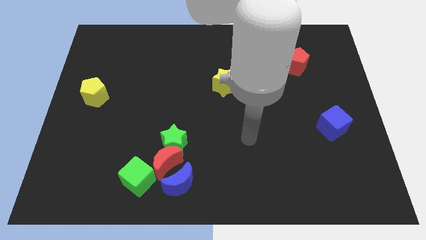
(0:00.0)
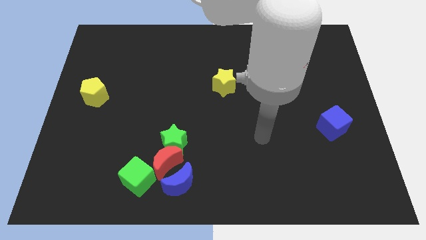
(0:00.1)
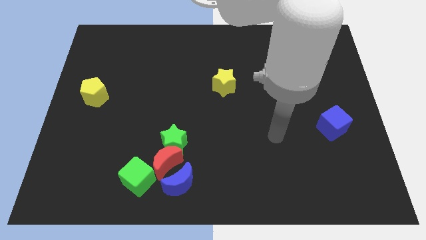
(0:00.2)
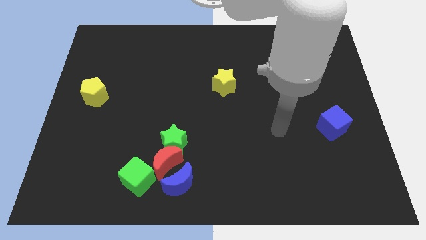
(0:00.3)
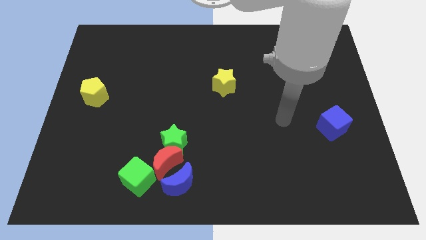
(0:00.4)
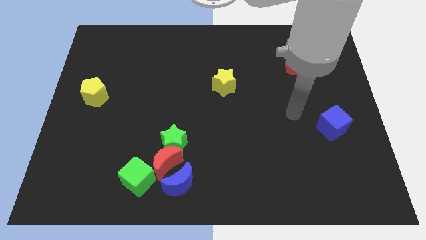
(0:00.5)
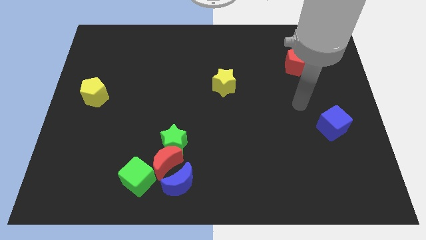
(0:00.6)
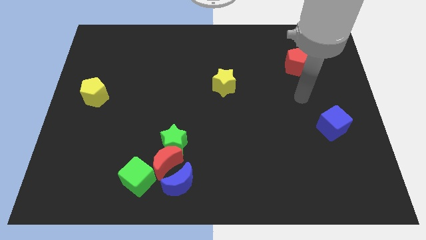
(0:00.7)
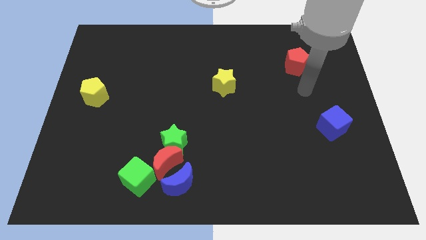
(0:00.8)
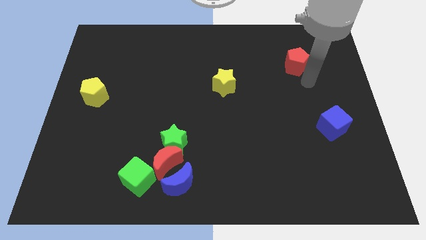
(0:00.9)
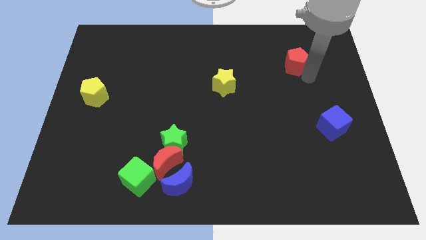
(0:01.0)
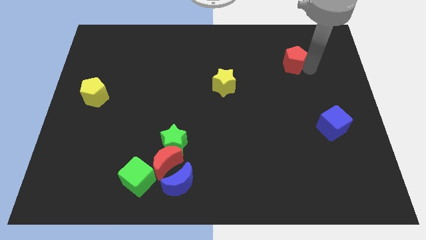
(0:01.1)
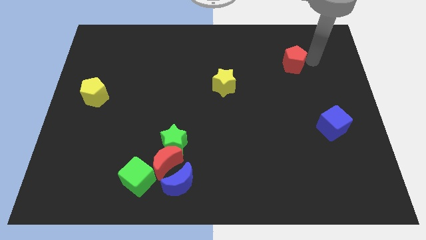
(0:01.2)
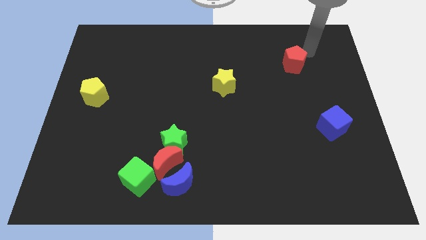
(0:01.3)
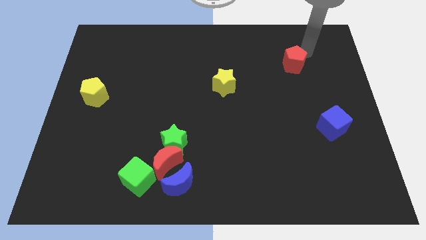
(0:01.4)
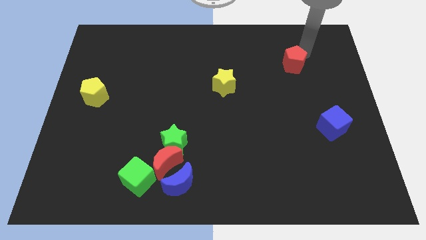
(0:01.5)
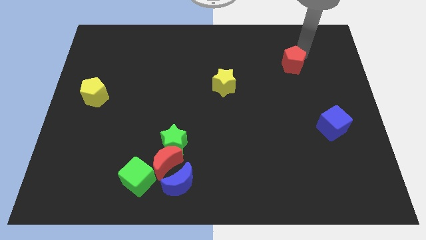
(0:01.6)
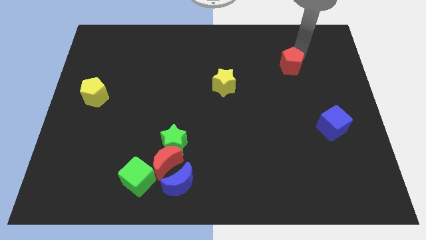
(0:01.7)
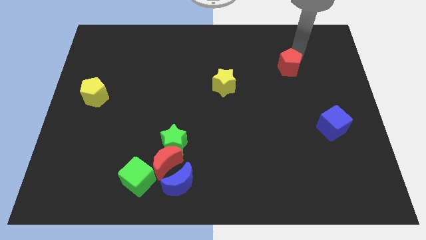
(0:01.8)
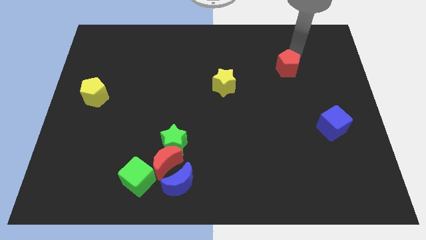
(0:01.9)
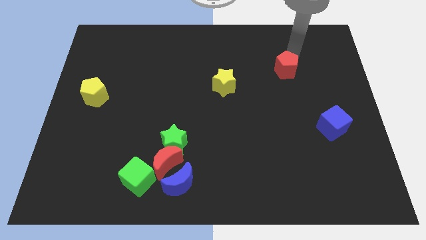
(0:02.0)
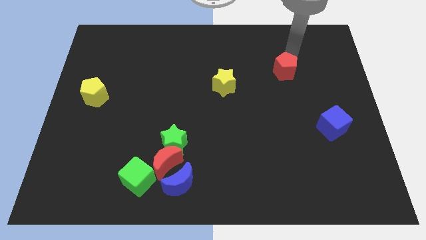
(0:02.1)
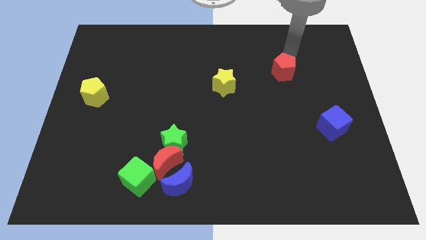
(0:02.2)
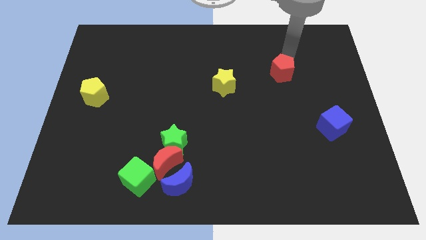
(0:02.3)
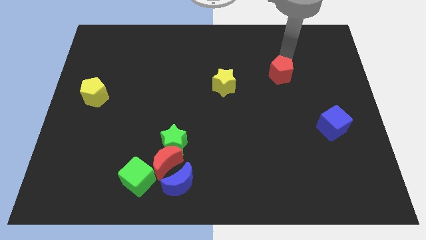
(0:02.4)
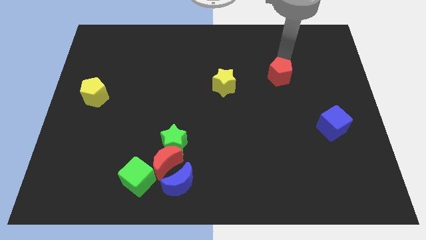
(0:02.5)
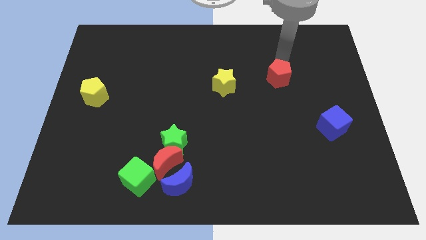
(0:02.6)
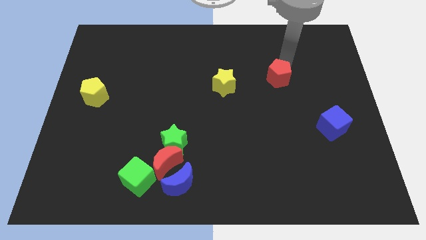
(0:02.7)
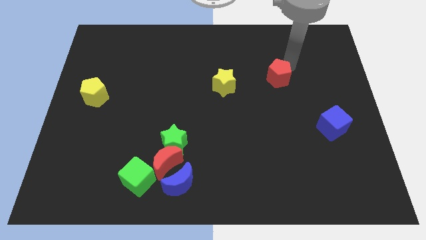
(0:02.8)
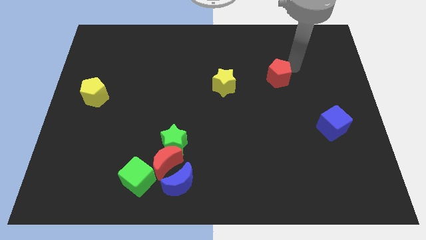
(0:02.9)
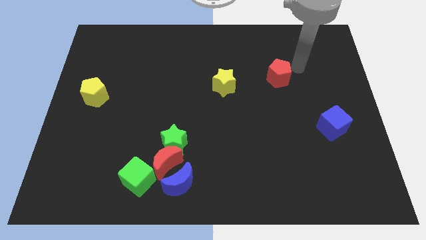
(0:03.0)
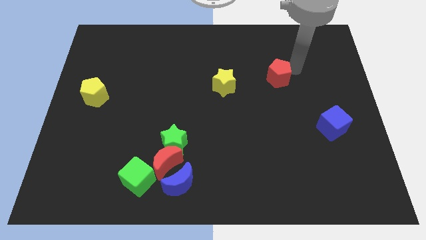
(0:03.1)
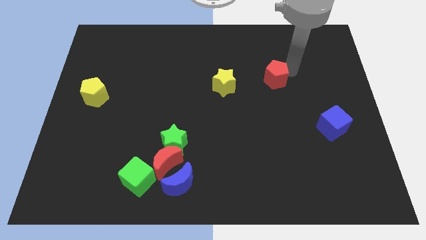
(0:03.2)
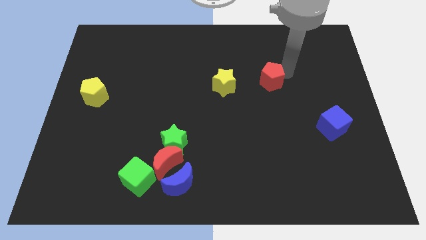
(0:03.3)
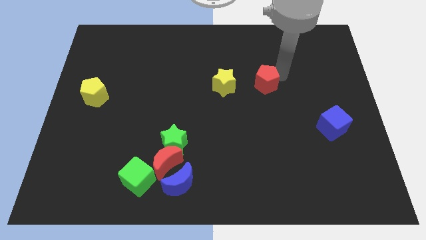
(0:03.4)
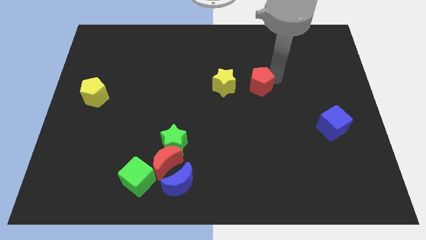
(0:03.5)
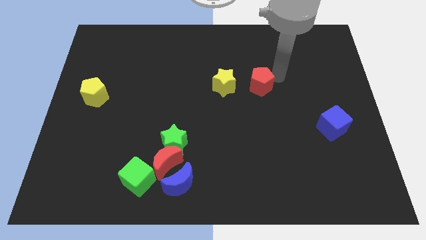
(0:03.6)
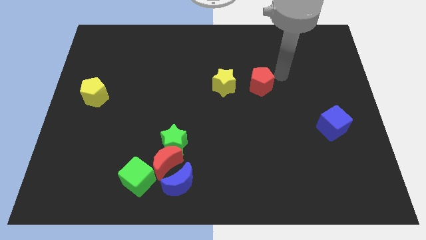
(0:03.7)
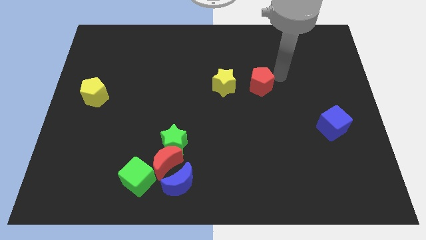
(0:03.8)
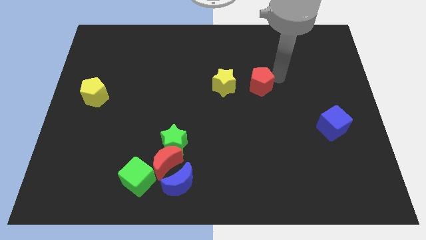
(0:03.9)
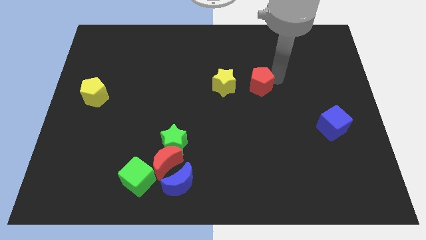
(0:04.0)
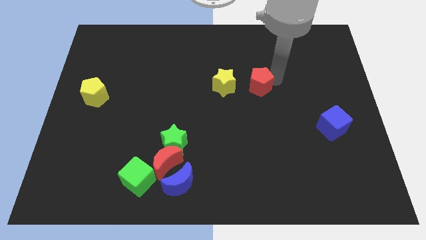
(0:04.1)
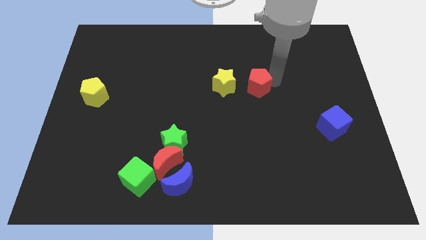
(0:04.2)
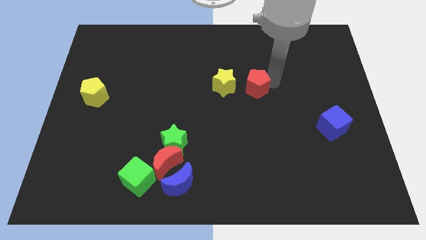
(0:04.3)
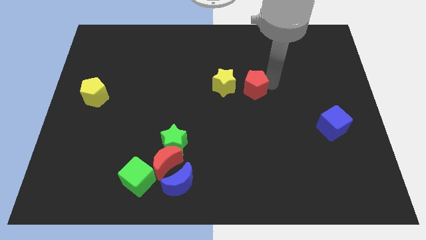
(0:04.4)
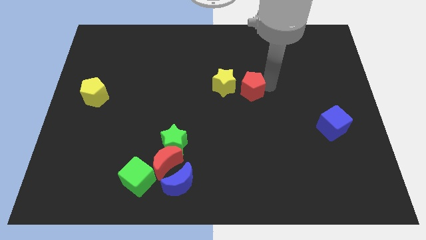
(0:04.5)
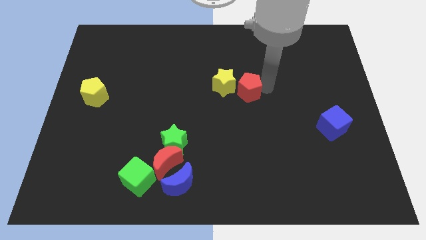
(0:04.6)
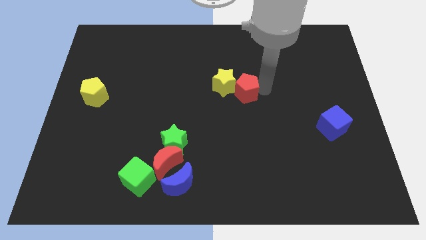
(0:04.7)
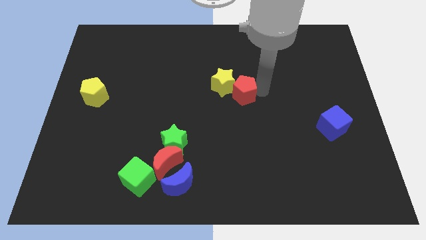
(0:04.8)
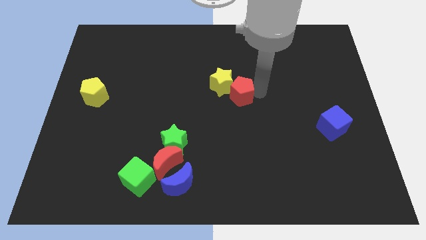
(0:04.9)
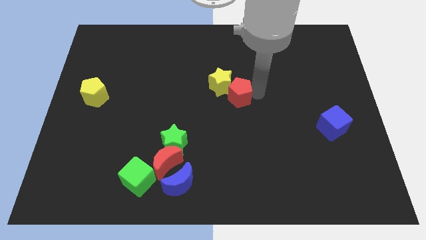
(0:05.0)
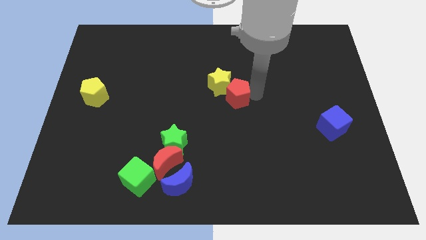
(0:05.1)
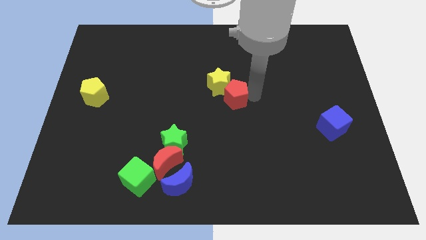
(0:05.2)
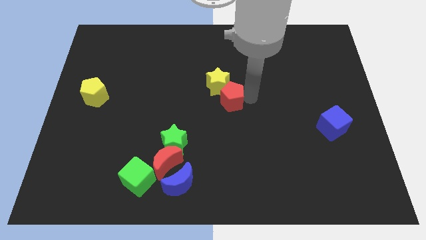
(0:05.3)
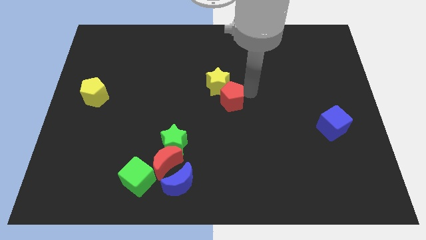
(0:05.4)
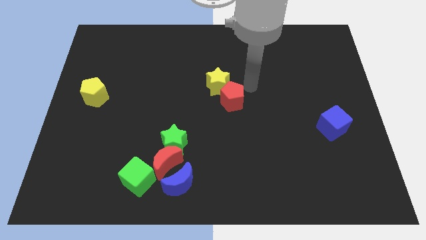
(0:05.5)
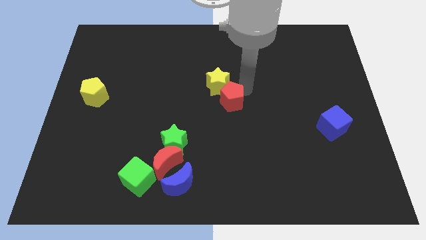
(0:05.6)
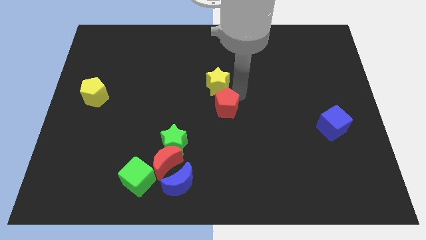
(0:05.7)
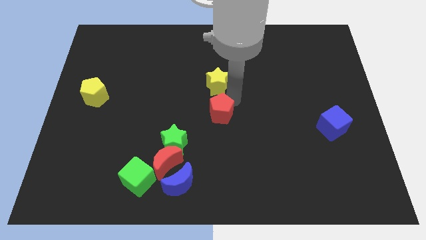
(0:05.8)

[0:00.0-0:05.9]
push the red pentagon diagonally up and to the right of the green star

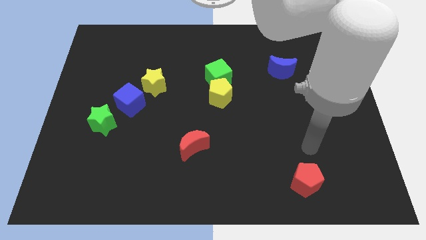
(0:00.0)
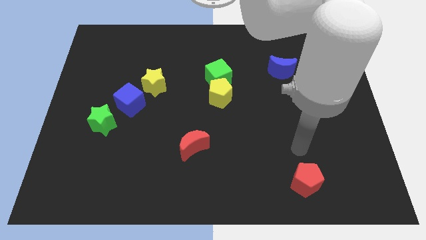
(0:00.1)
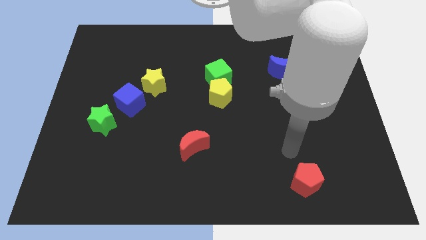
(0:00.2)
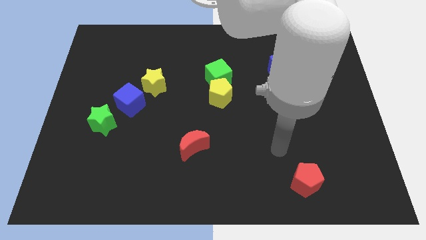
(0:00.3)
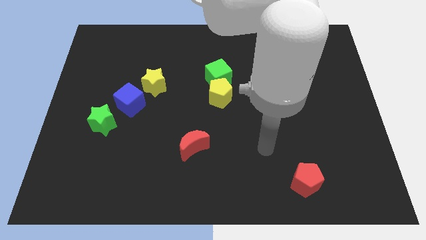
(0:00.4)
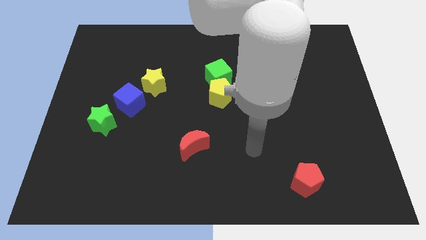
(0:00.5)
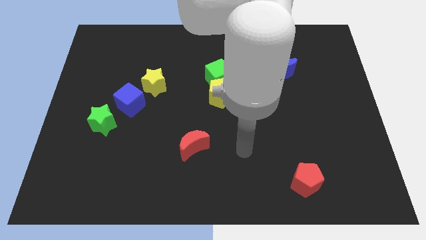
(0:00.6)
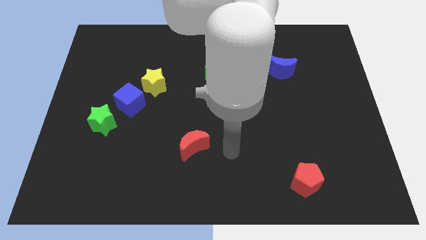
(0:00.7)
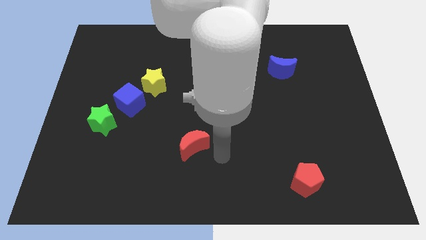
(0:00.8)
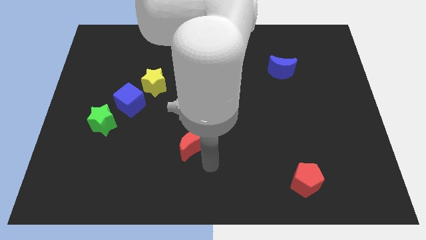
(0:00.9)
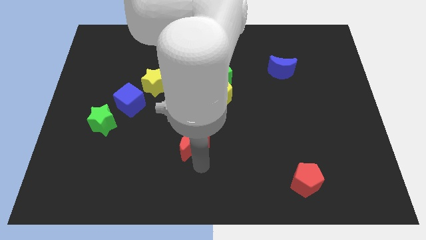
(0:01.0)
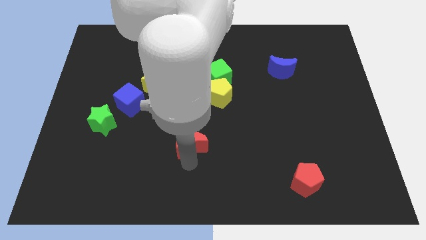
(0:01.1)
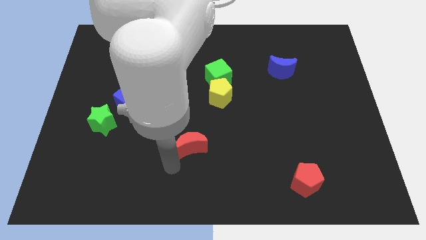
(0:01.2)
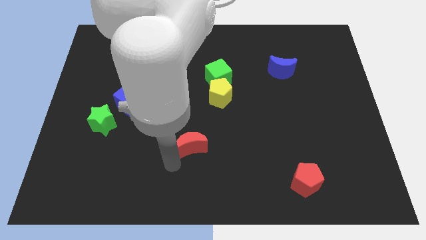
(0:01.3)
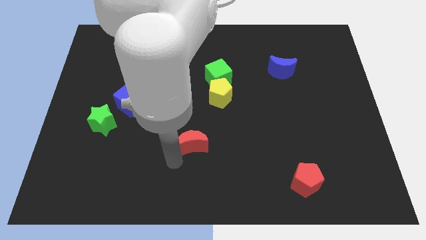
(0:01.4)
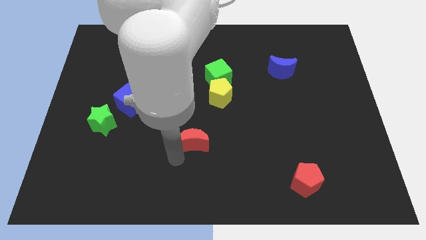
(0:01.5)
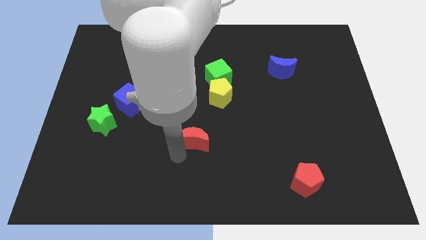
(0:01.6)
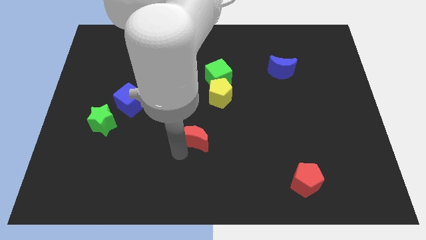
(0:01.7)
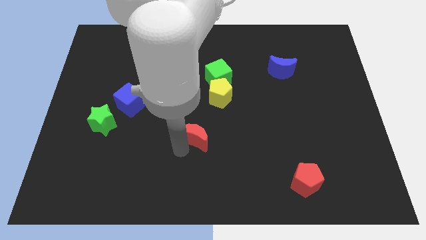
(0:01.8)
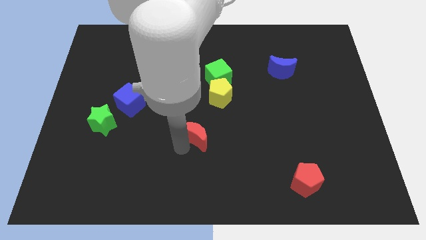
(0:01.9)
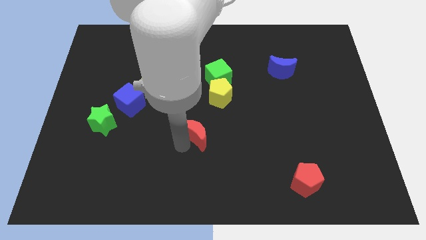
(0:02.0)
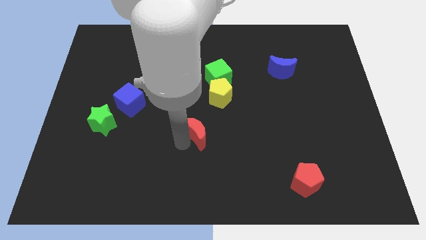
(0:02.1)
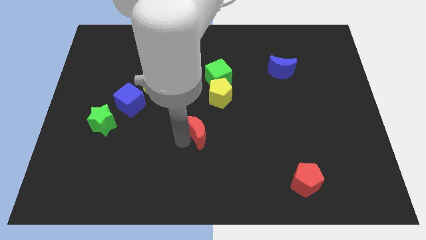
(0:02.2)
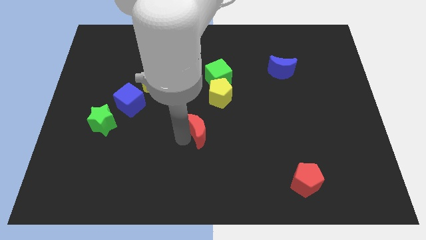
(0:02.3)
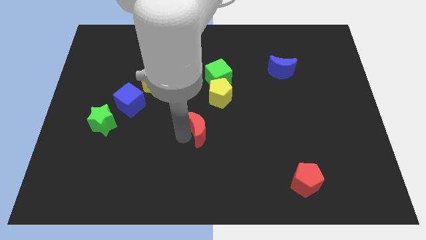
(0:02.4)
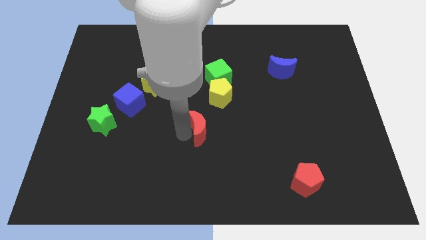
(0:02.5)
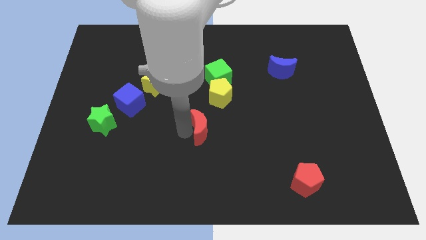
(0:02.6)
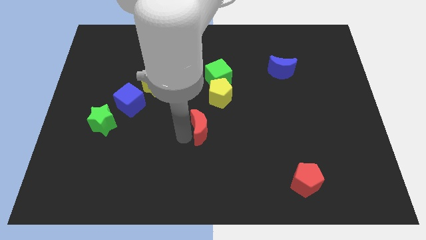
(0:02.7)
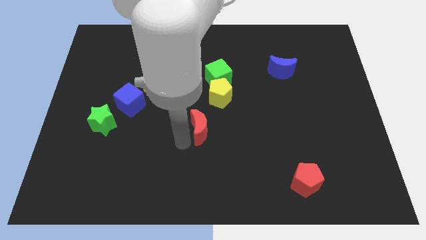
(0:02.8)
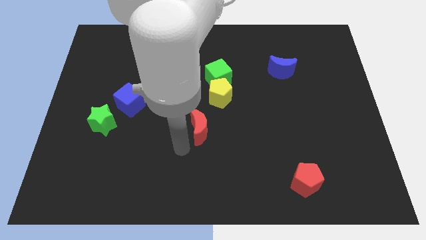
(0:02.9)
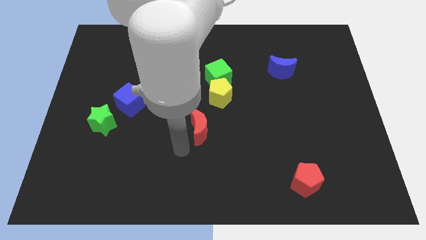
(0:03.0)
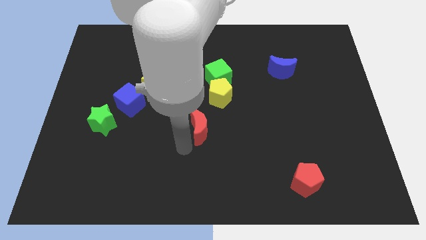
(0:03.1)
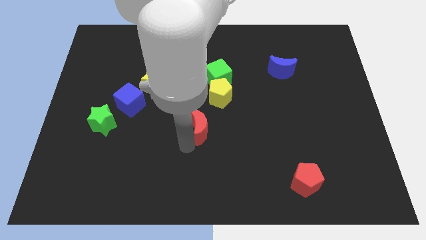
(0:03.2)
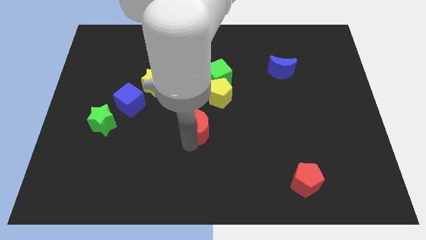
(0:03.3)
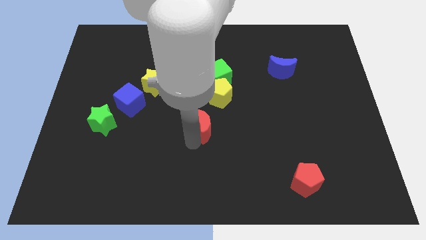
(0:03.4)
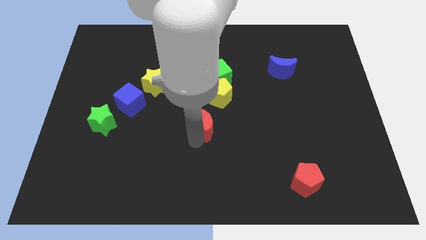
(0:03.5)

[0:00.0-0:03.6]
slide the red moon to the bottom of the green cube
